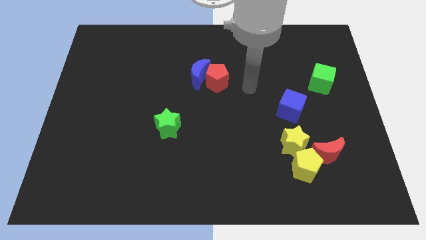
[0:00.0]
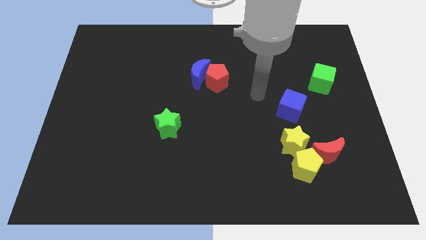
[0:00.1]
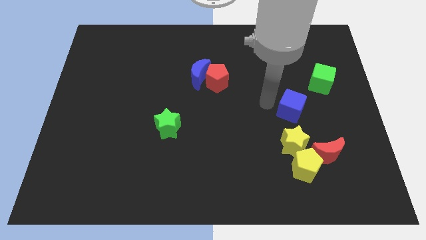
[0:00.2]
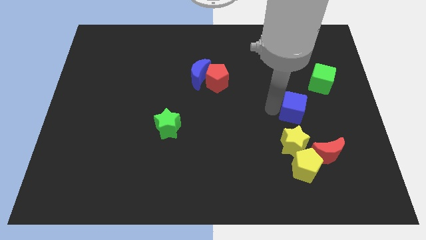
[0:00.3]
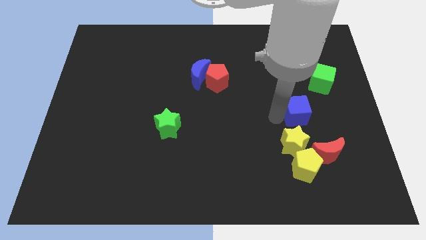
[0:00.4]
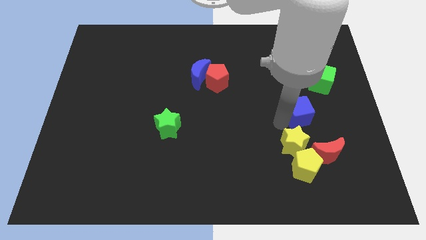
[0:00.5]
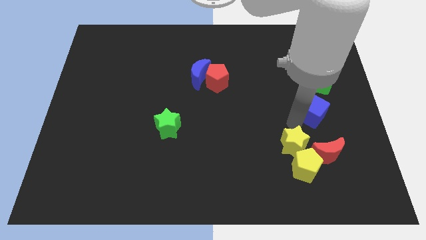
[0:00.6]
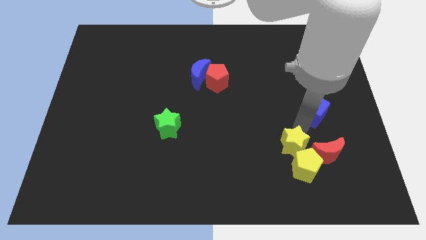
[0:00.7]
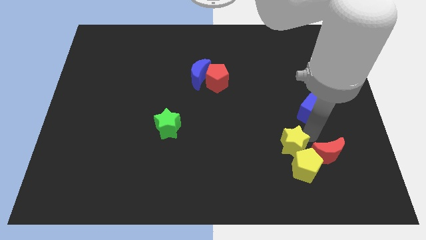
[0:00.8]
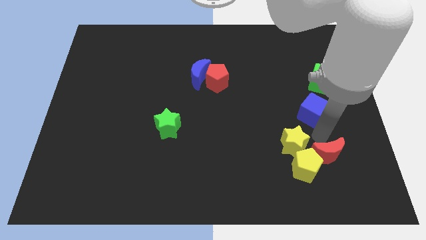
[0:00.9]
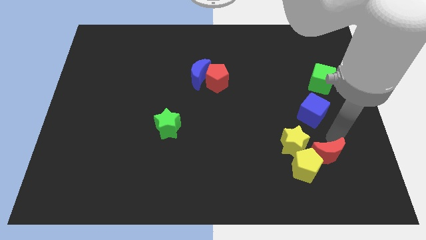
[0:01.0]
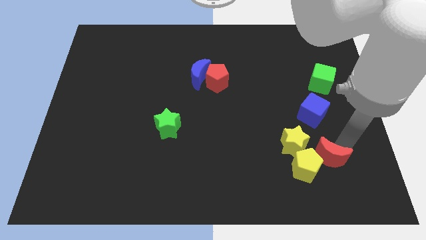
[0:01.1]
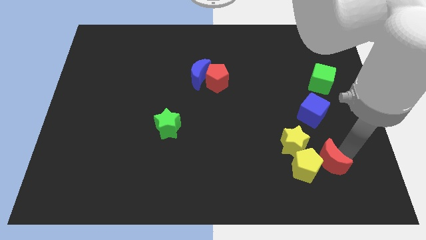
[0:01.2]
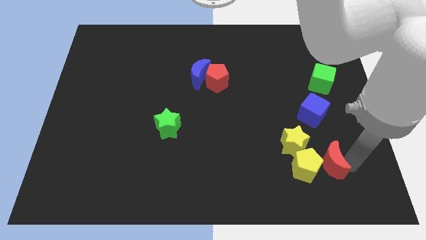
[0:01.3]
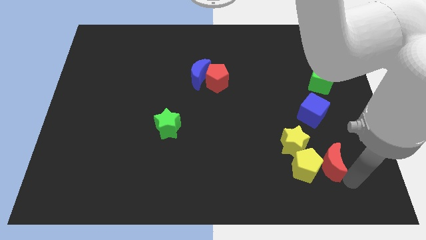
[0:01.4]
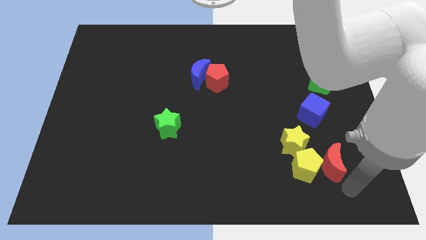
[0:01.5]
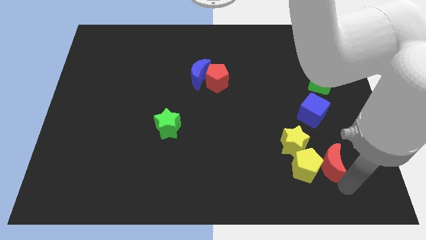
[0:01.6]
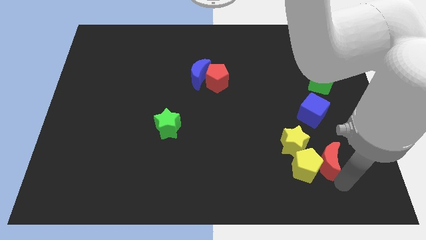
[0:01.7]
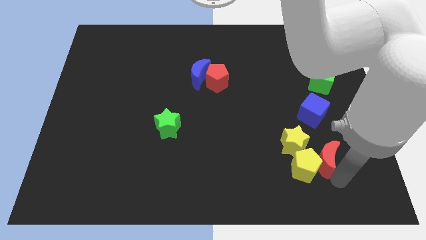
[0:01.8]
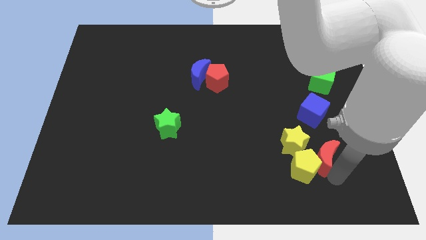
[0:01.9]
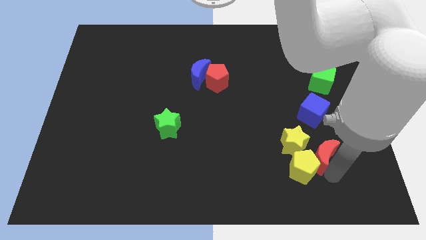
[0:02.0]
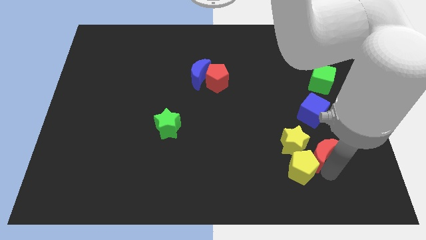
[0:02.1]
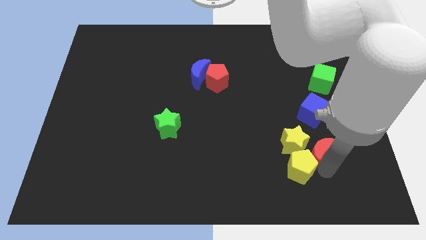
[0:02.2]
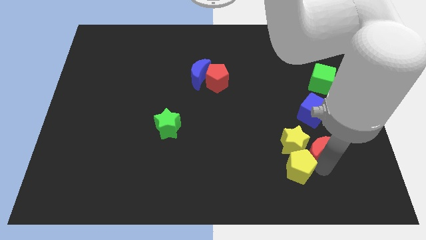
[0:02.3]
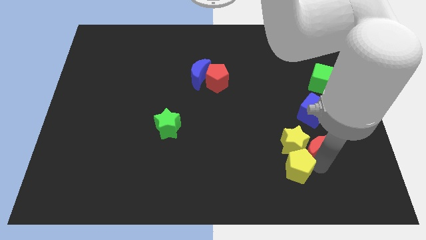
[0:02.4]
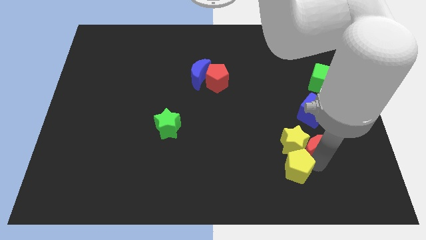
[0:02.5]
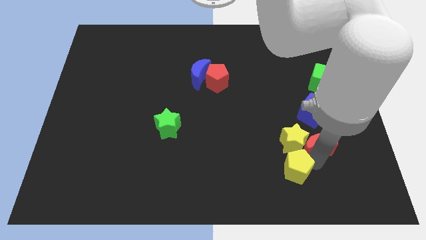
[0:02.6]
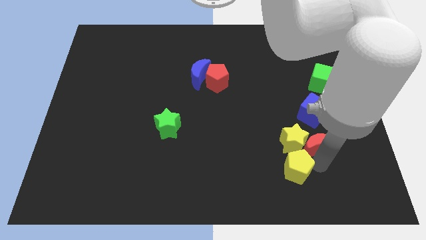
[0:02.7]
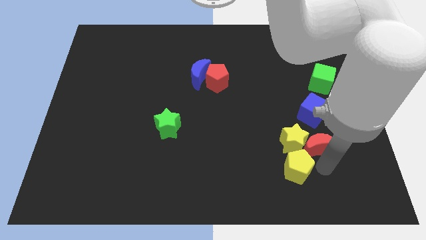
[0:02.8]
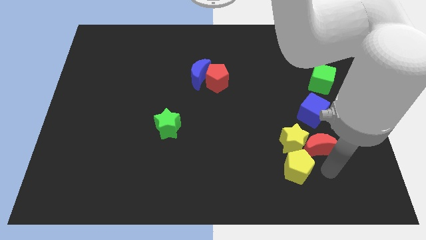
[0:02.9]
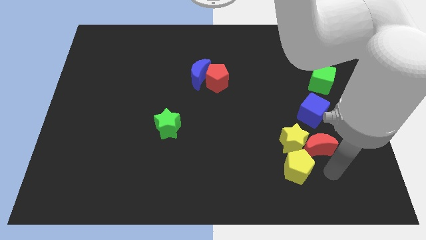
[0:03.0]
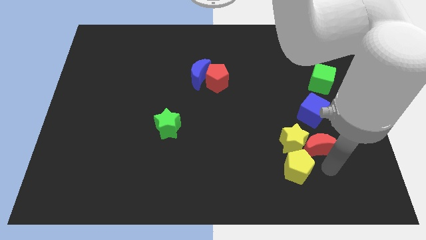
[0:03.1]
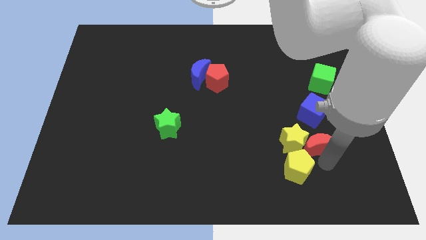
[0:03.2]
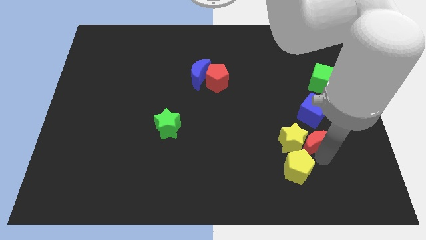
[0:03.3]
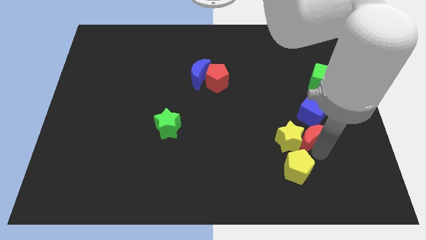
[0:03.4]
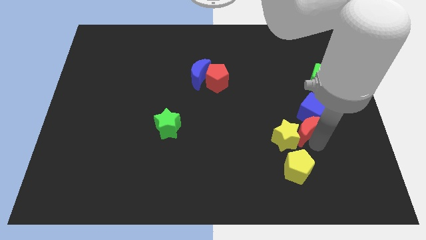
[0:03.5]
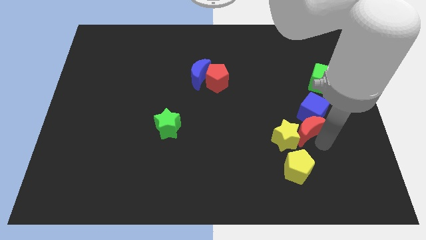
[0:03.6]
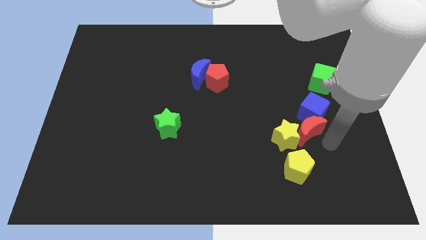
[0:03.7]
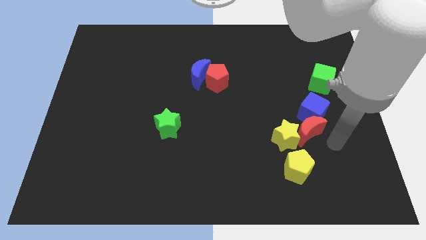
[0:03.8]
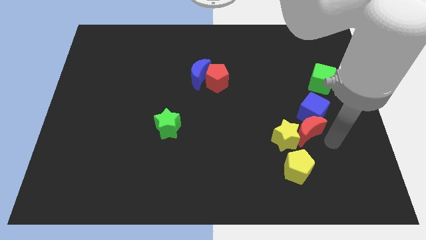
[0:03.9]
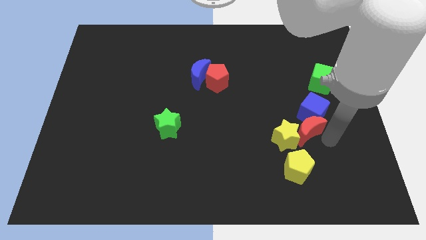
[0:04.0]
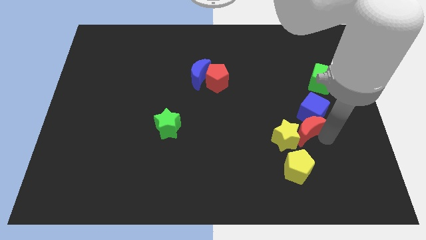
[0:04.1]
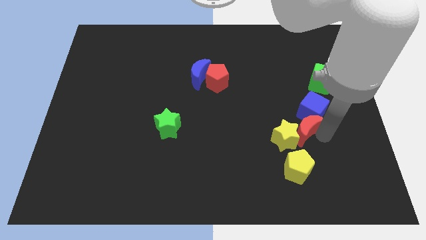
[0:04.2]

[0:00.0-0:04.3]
move the red moon a little diagonally upwards and to the left

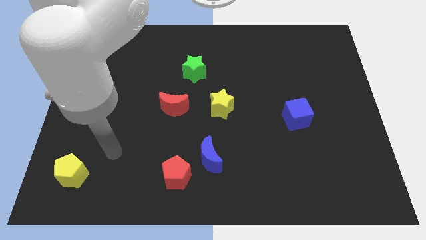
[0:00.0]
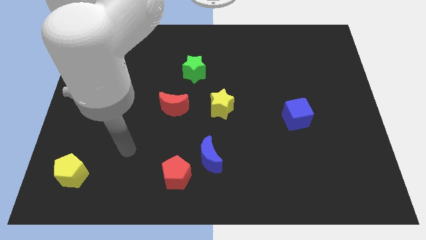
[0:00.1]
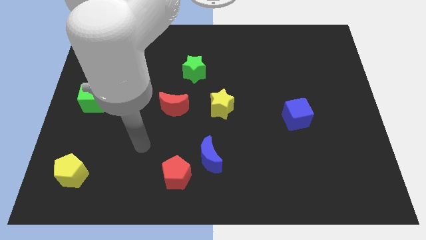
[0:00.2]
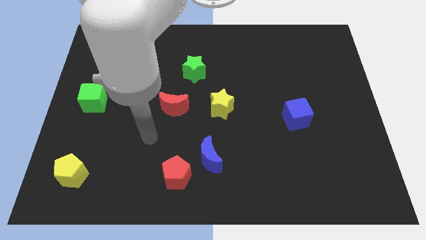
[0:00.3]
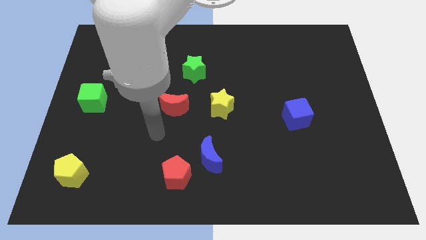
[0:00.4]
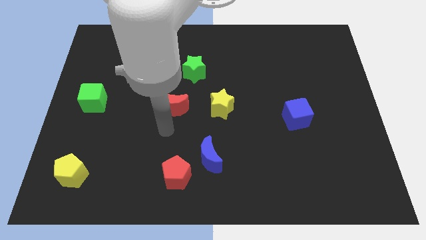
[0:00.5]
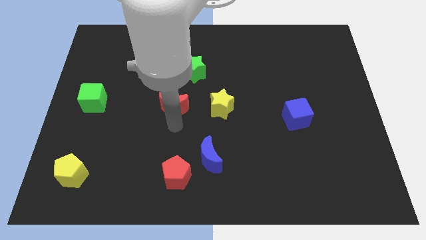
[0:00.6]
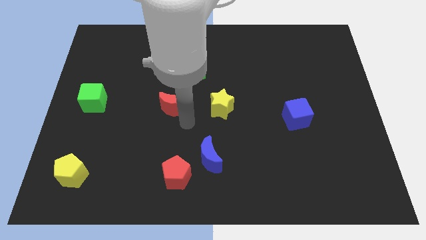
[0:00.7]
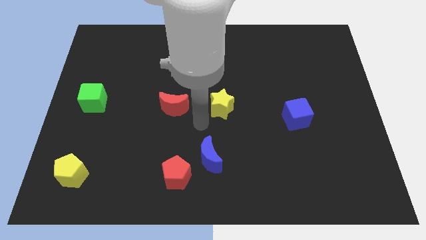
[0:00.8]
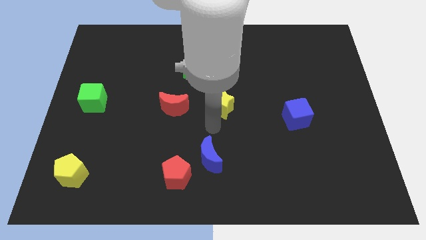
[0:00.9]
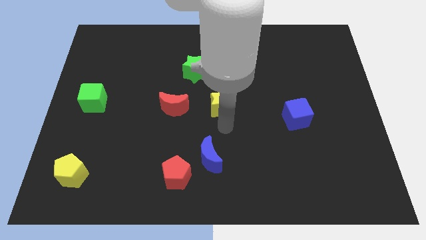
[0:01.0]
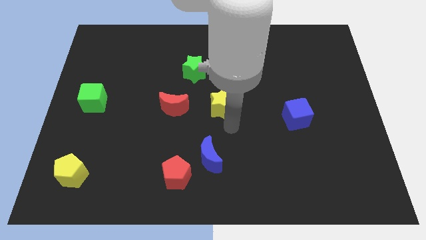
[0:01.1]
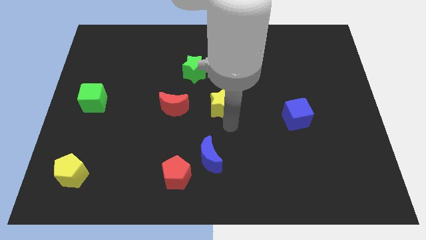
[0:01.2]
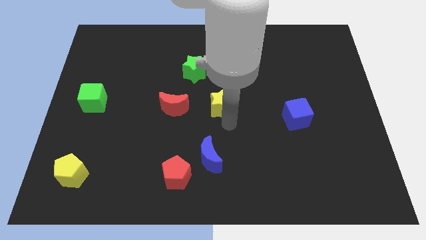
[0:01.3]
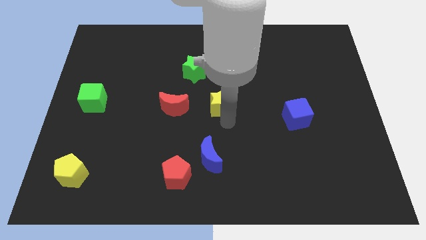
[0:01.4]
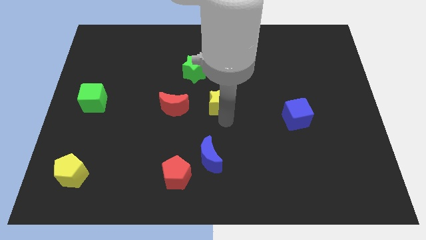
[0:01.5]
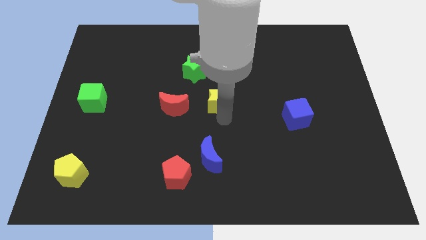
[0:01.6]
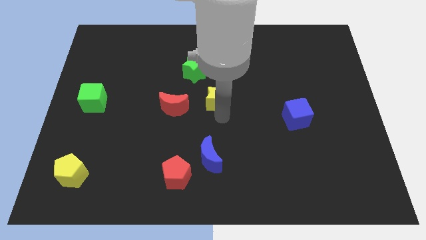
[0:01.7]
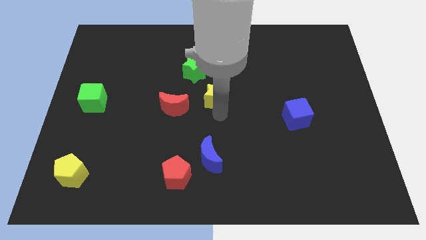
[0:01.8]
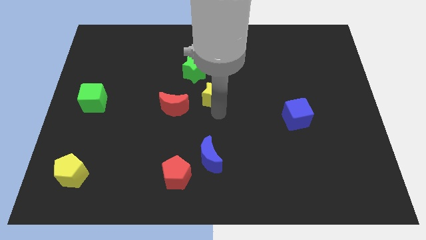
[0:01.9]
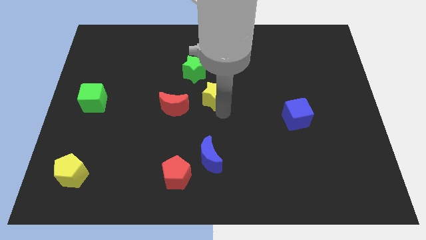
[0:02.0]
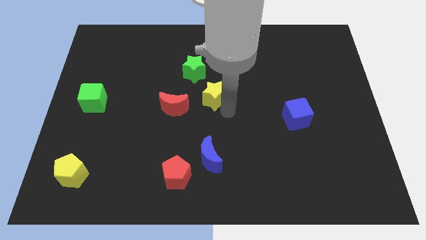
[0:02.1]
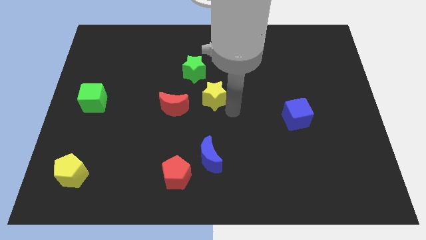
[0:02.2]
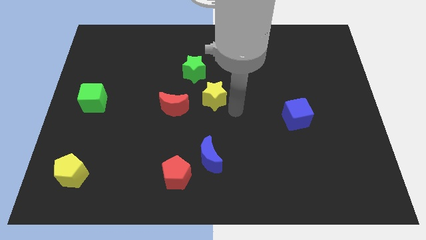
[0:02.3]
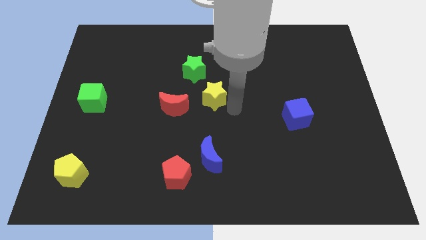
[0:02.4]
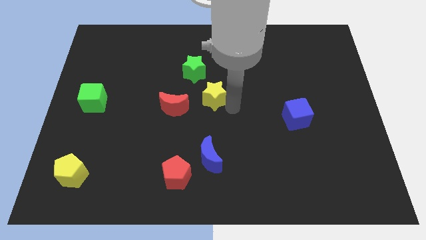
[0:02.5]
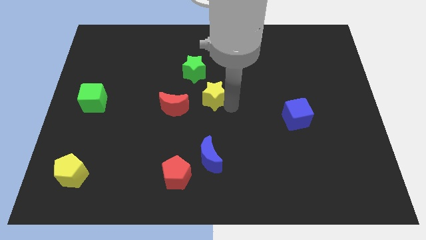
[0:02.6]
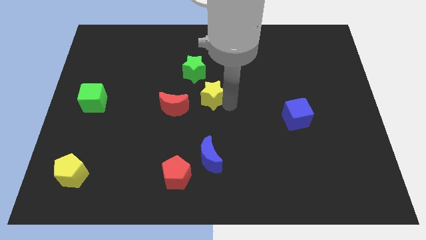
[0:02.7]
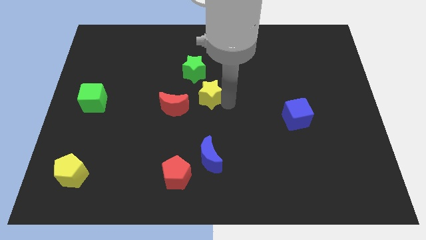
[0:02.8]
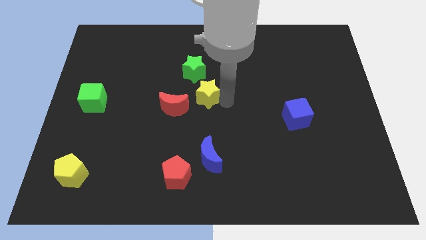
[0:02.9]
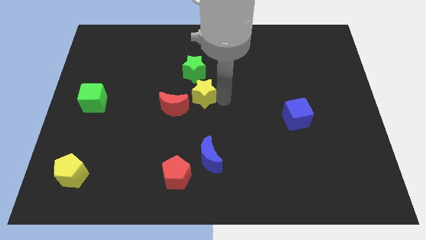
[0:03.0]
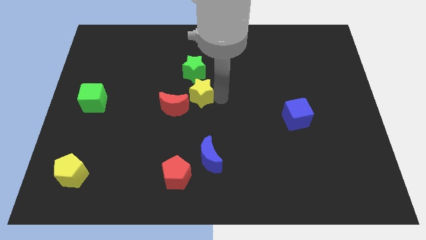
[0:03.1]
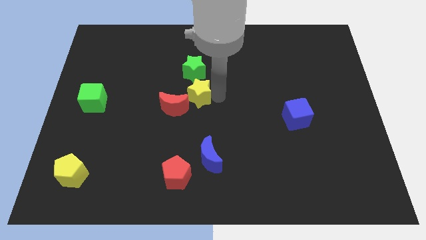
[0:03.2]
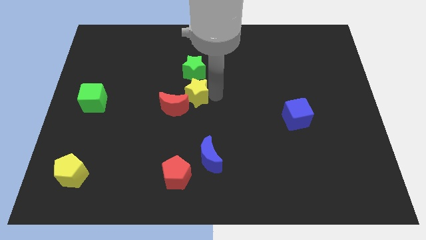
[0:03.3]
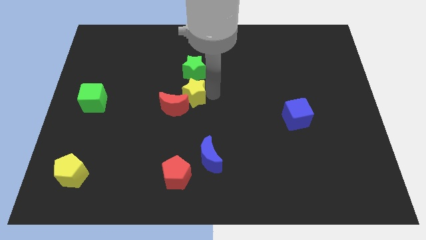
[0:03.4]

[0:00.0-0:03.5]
move the yellow star slightly upwards and then to the left
